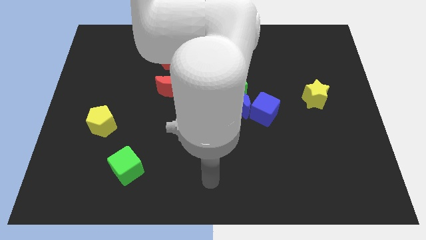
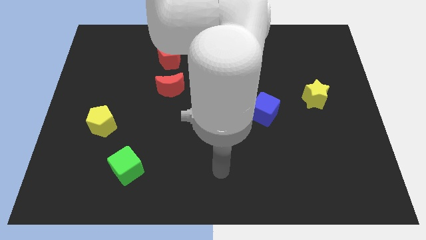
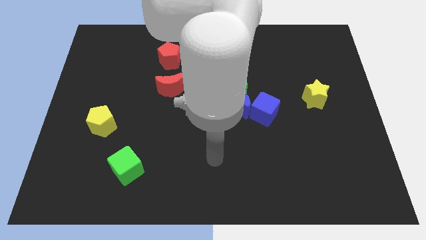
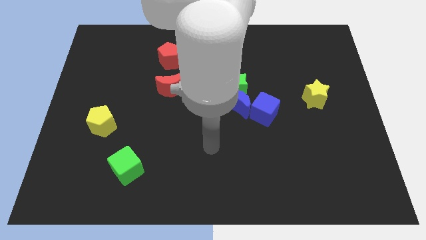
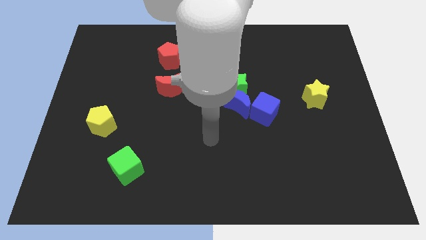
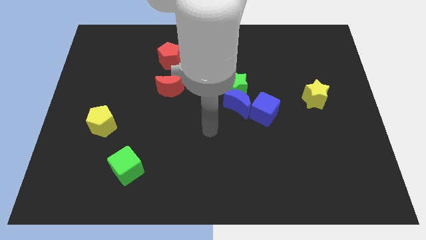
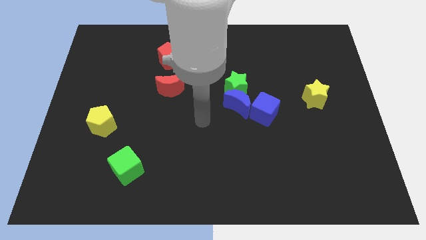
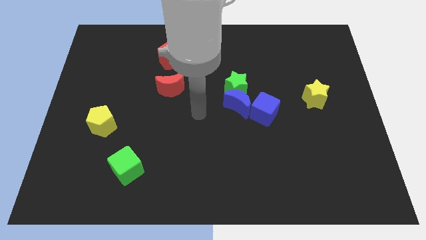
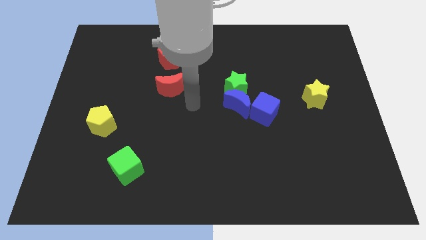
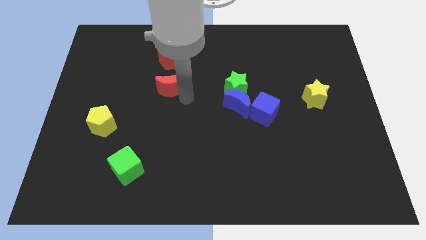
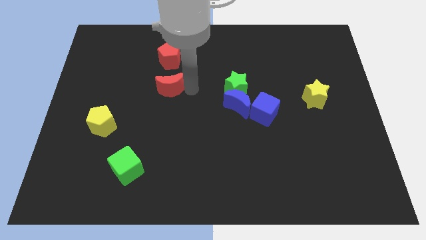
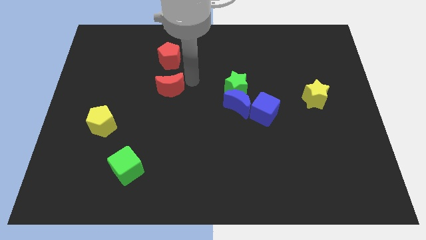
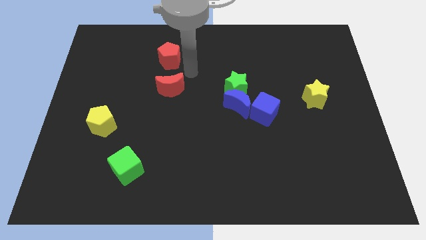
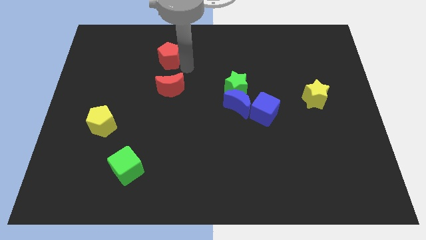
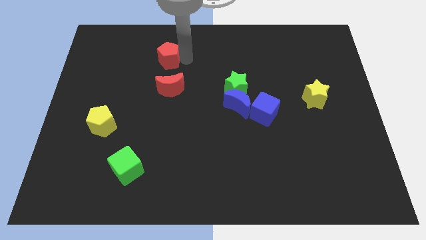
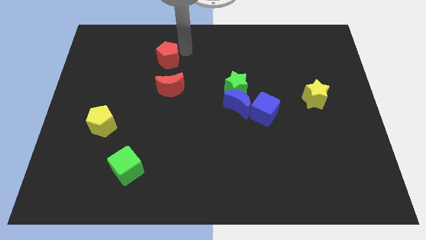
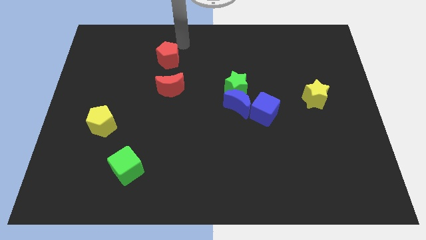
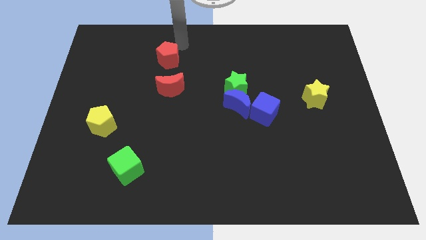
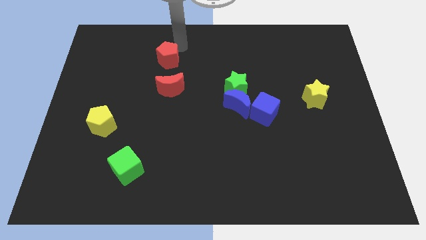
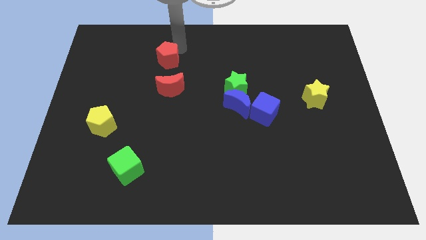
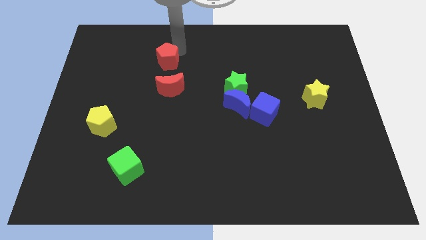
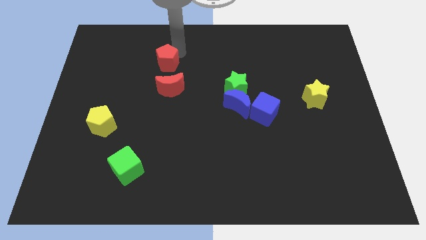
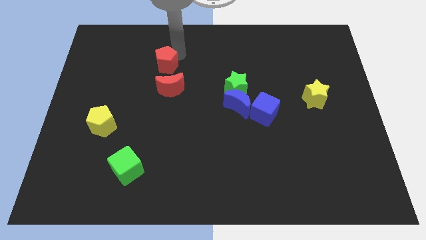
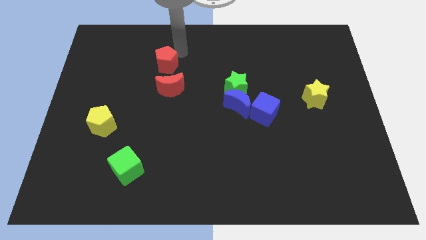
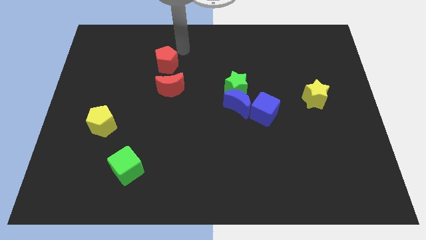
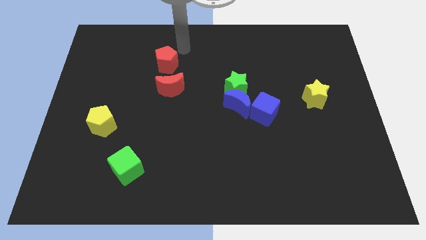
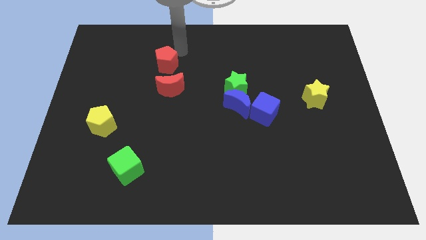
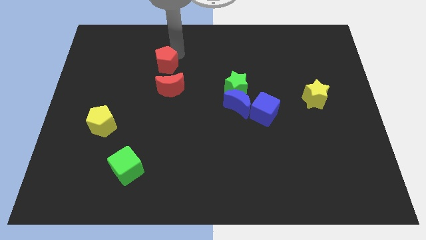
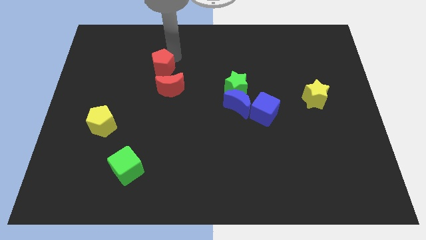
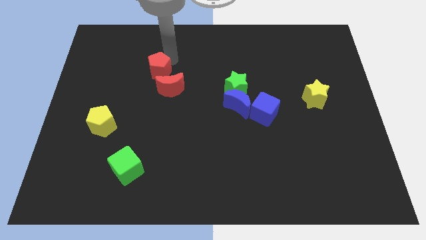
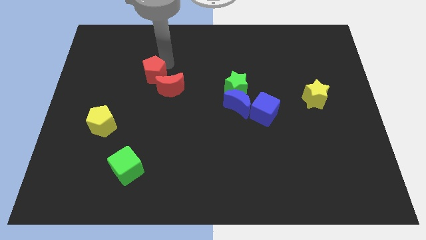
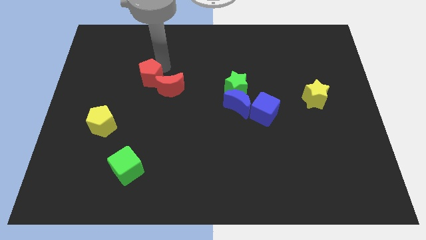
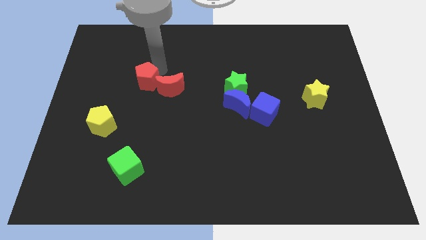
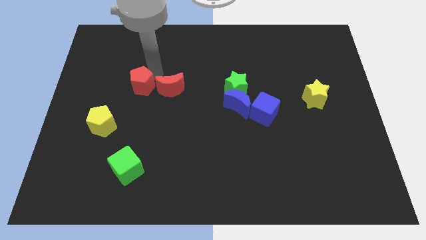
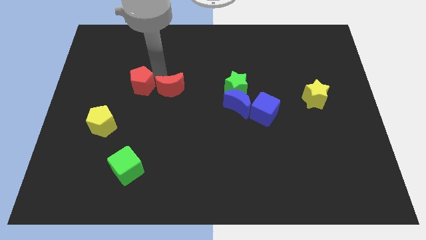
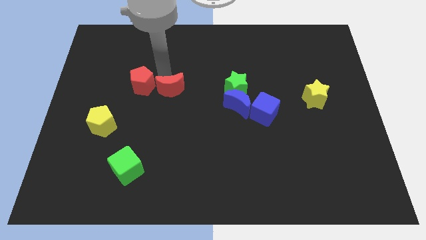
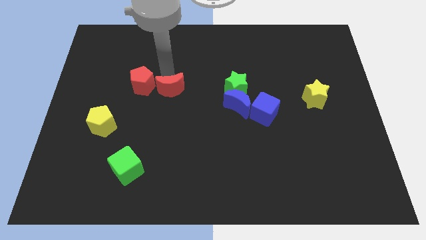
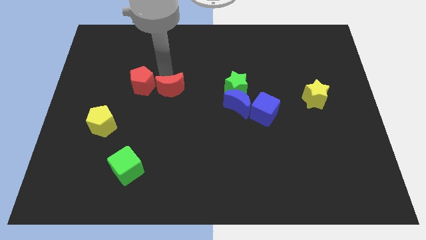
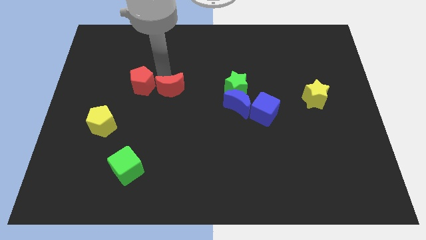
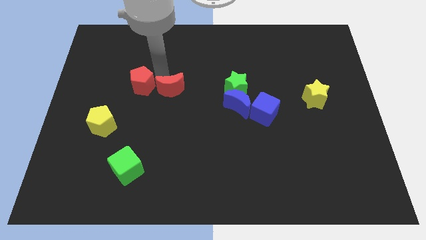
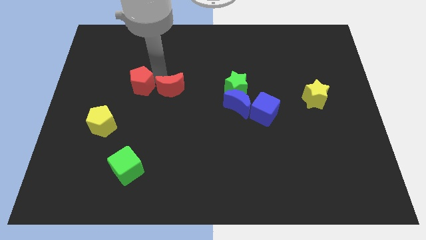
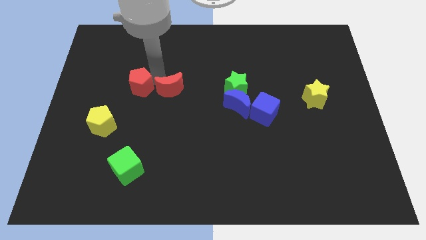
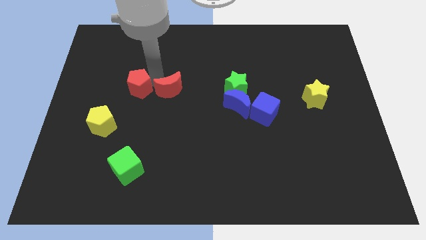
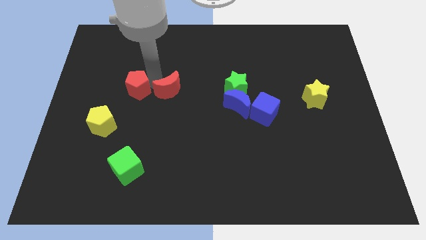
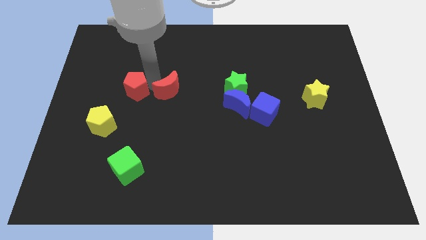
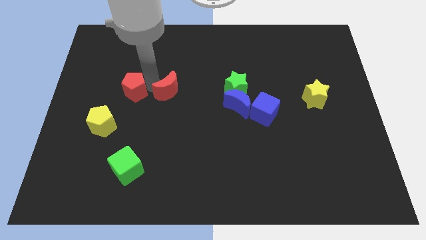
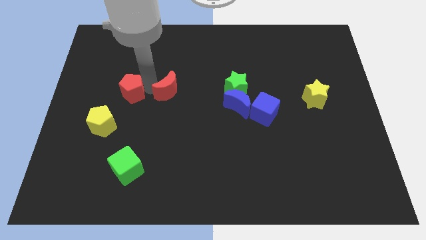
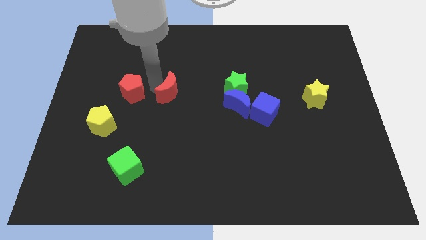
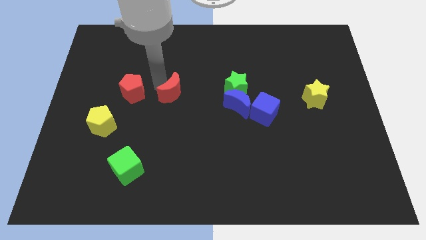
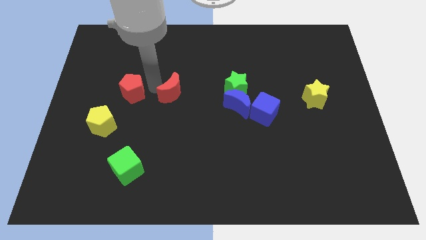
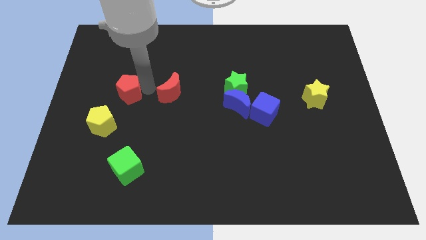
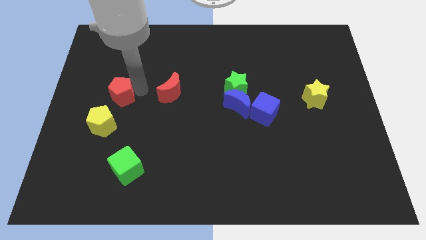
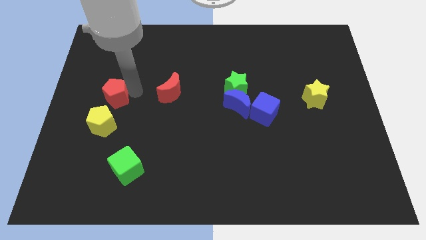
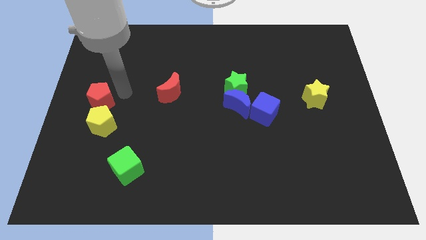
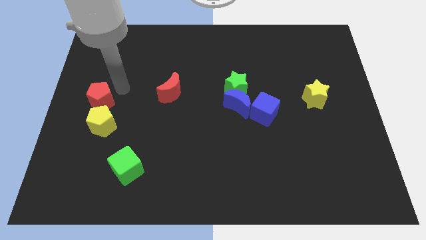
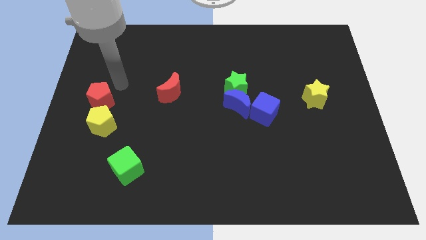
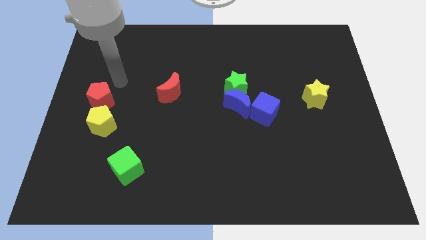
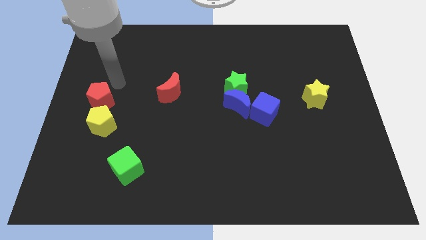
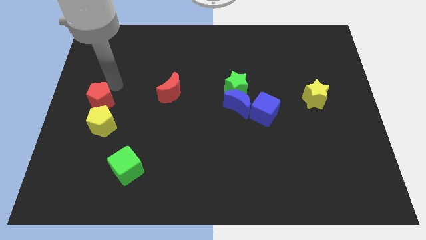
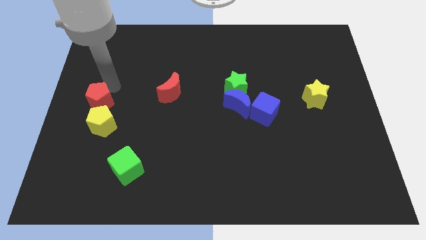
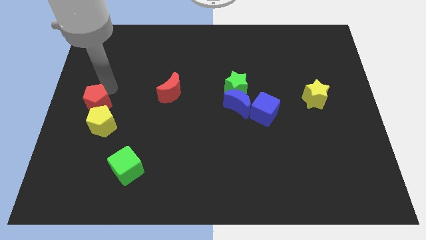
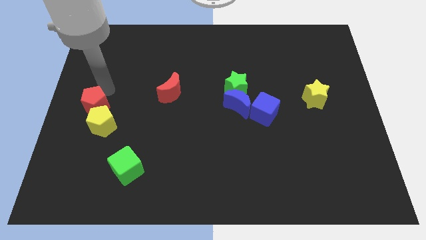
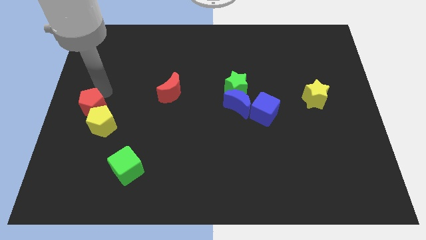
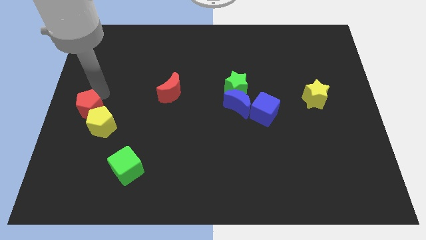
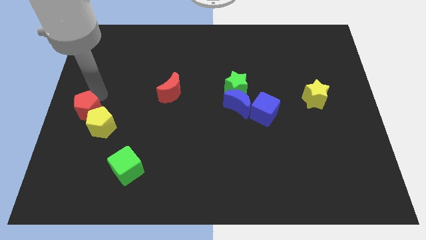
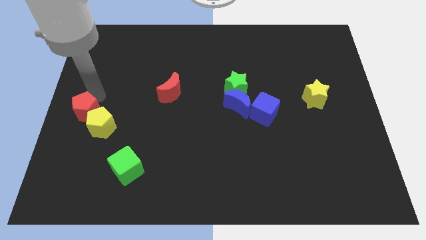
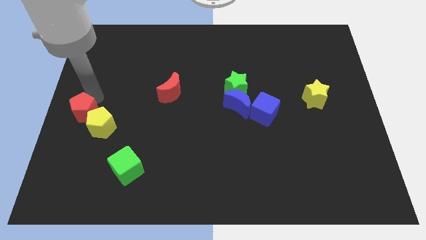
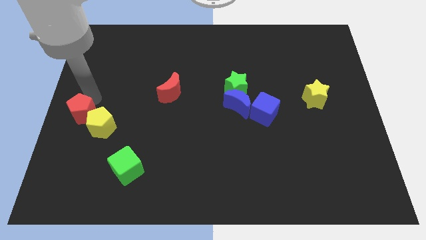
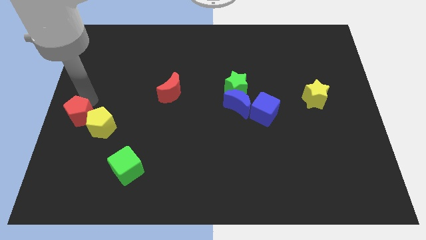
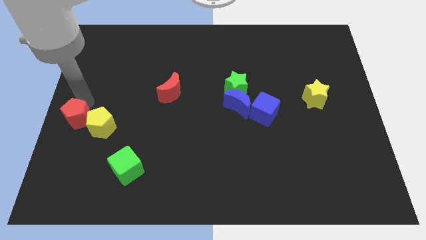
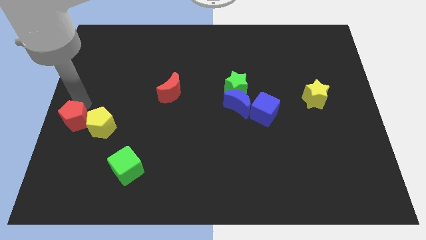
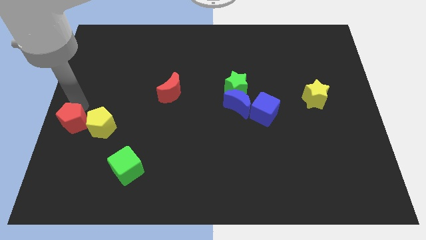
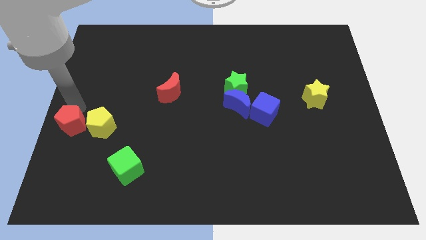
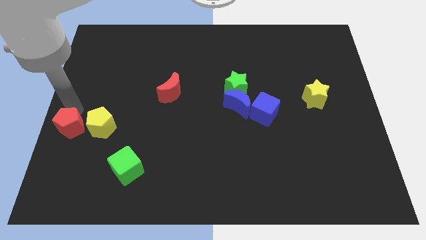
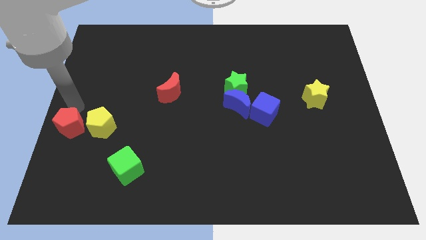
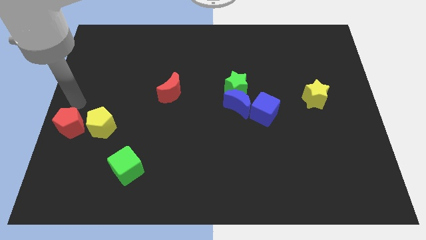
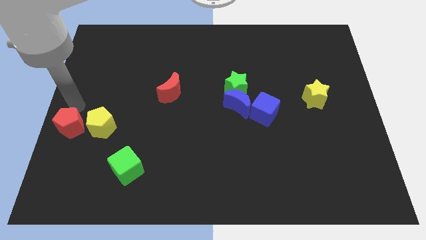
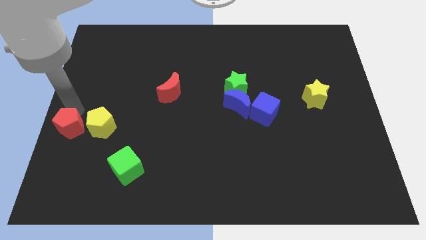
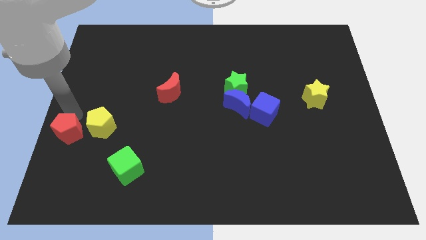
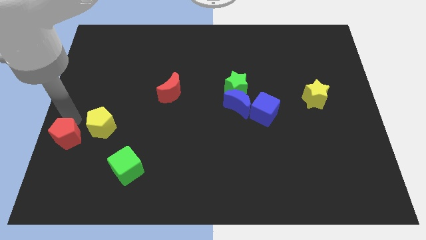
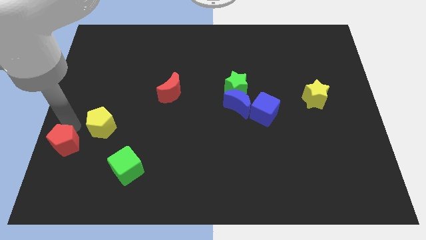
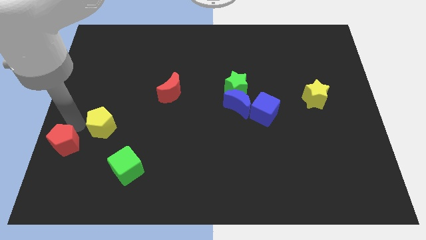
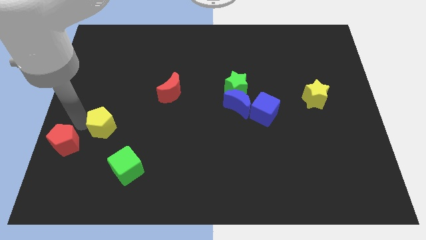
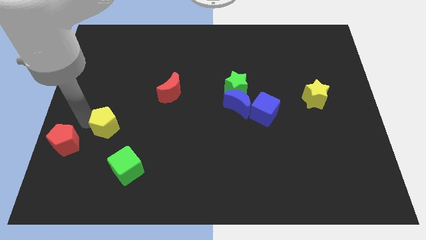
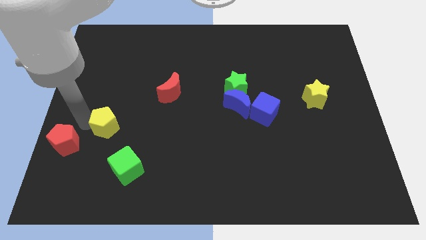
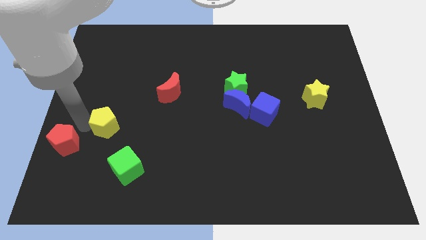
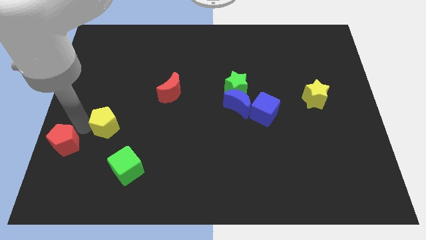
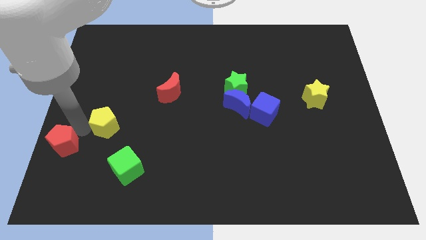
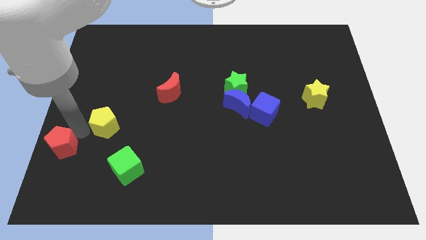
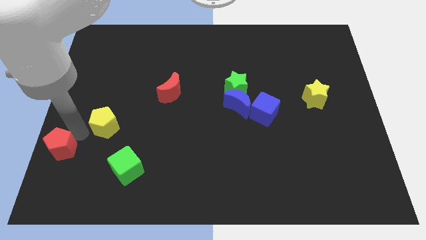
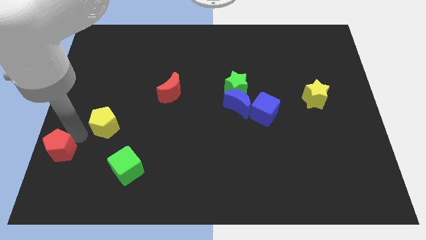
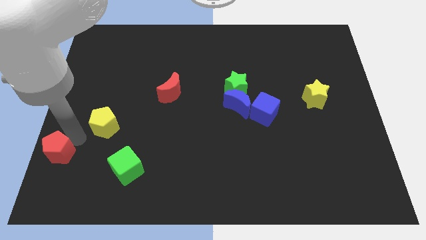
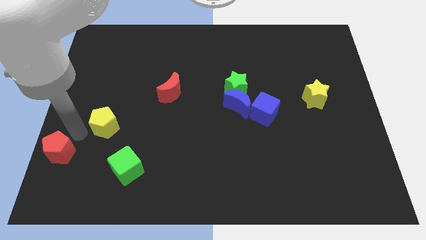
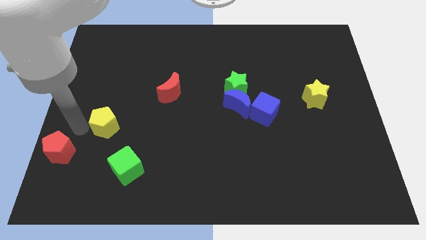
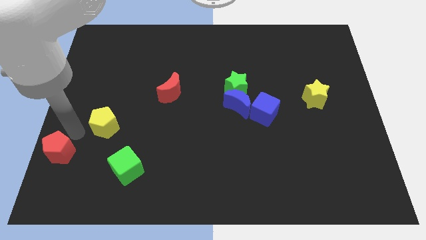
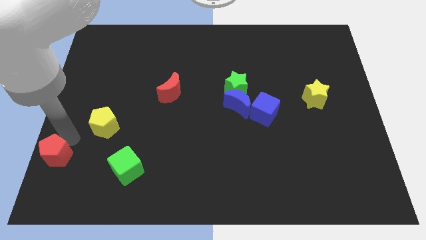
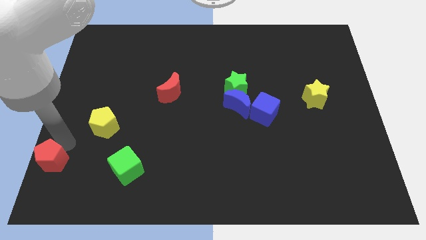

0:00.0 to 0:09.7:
put the red pentagon to the bottom left corner
